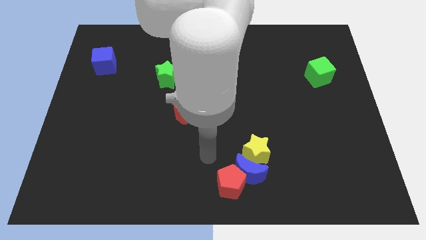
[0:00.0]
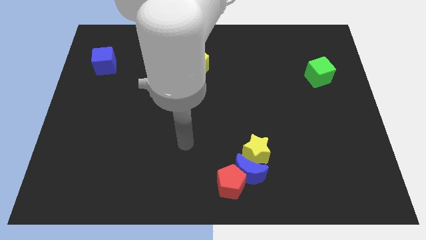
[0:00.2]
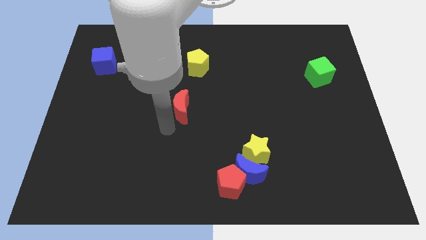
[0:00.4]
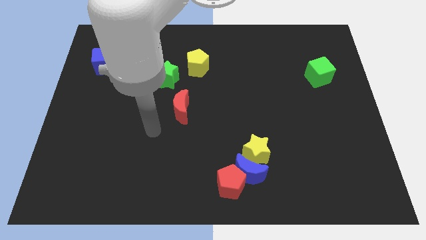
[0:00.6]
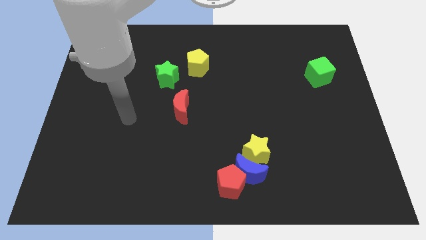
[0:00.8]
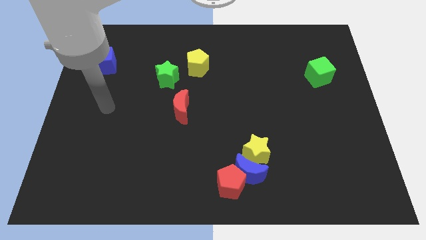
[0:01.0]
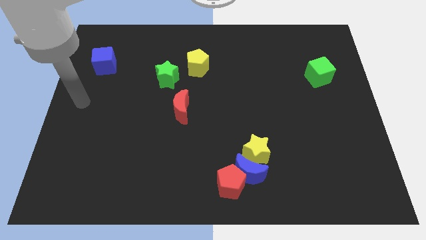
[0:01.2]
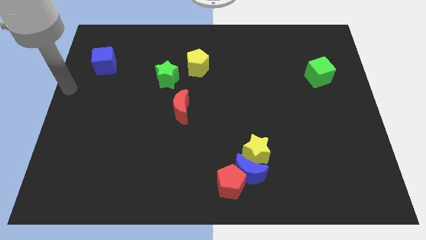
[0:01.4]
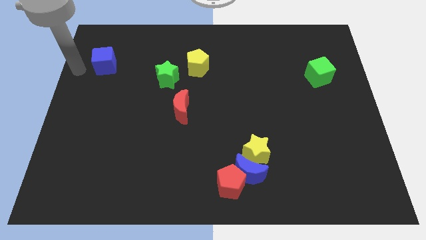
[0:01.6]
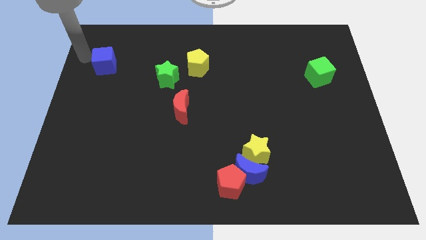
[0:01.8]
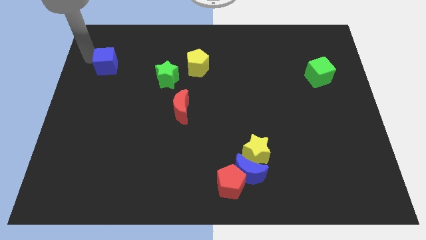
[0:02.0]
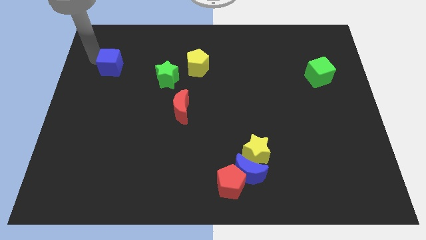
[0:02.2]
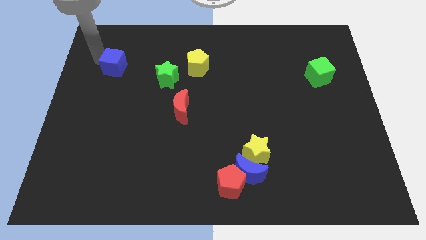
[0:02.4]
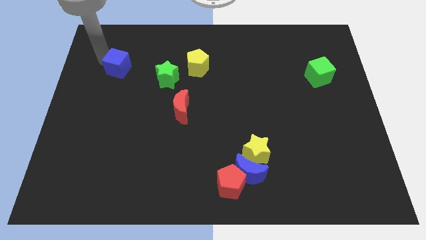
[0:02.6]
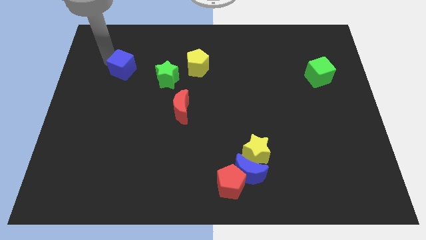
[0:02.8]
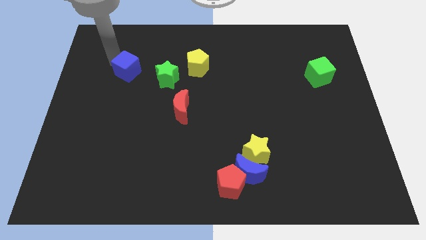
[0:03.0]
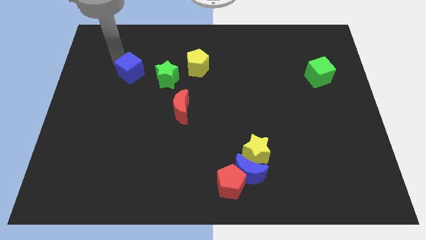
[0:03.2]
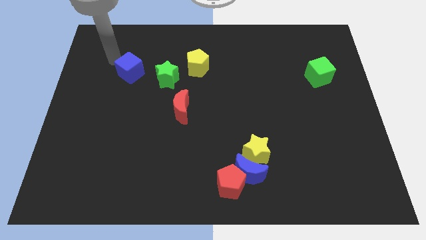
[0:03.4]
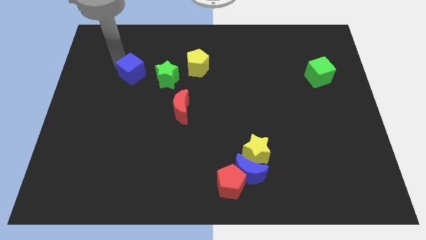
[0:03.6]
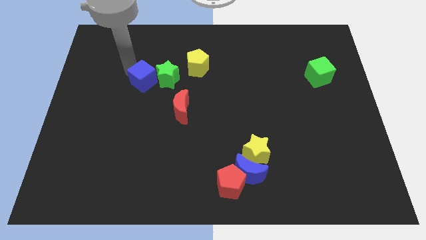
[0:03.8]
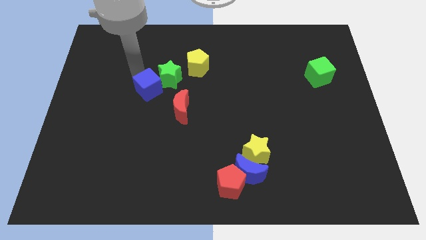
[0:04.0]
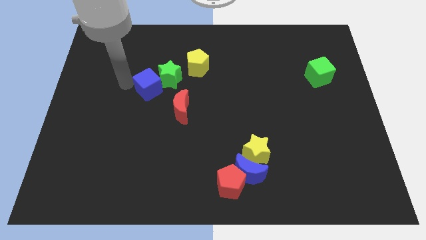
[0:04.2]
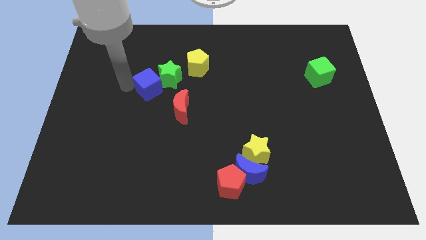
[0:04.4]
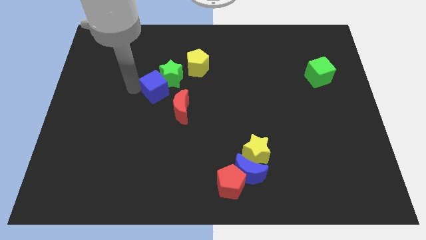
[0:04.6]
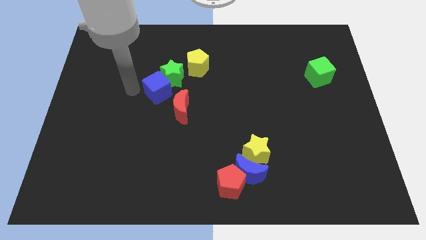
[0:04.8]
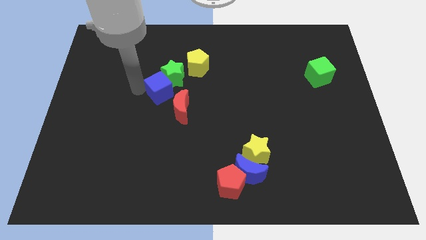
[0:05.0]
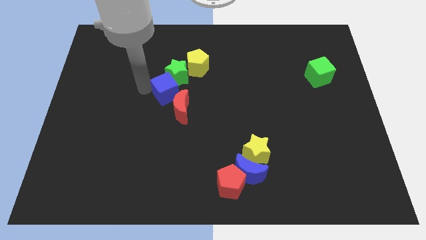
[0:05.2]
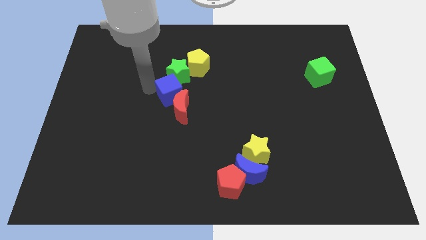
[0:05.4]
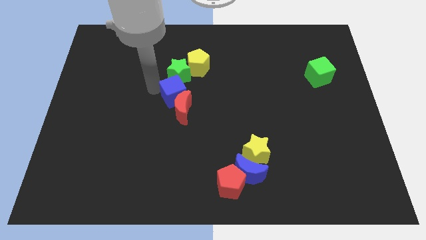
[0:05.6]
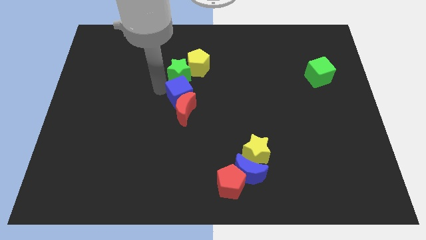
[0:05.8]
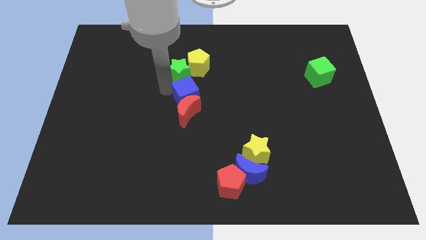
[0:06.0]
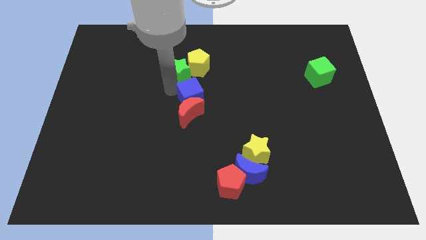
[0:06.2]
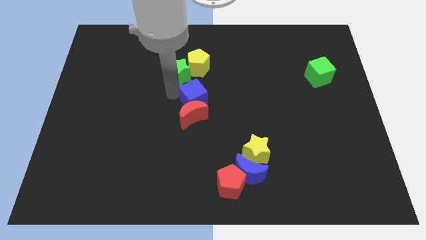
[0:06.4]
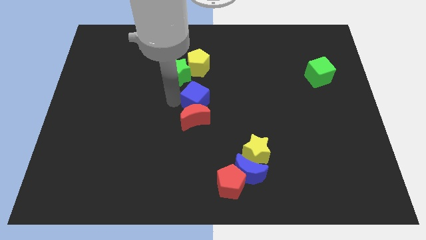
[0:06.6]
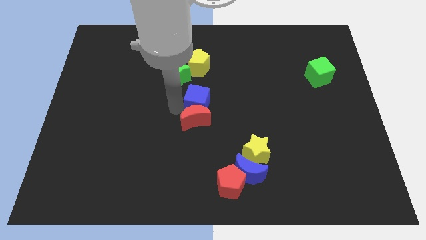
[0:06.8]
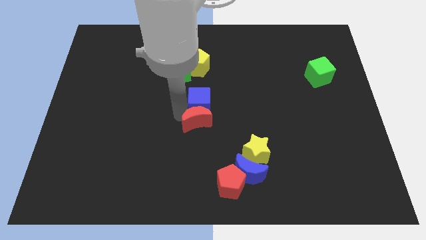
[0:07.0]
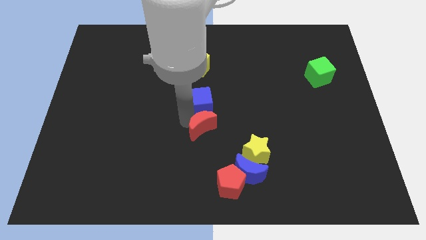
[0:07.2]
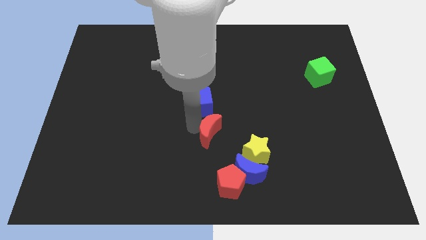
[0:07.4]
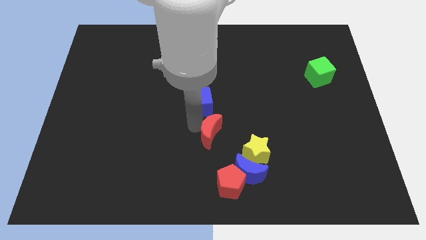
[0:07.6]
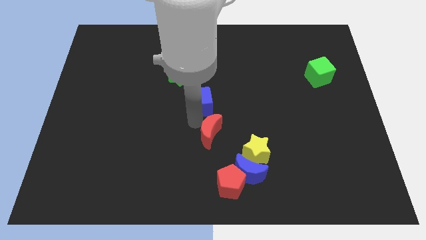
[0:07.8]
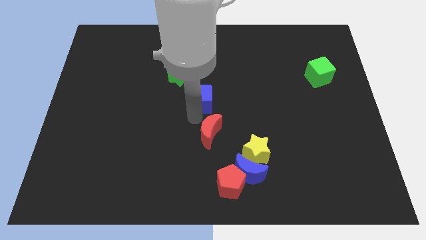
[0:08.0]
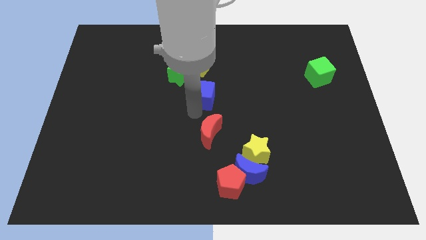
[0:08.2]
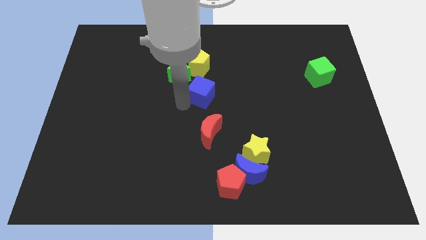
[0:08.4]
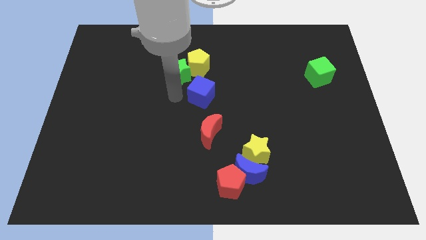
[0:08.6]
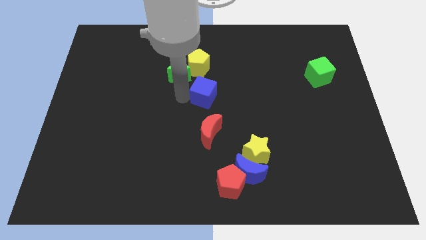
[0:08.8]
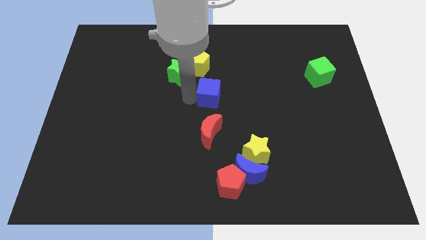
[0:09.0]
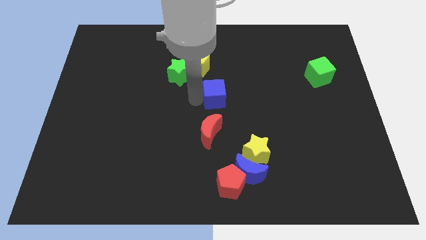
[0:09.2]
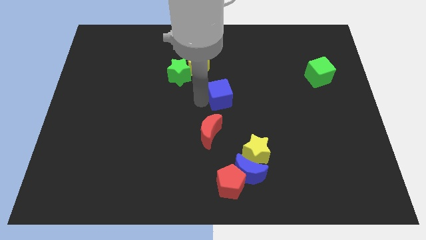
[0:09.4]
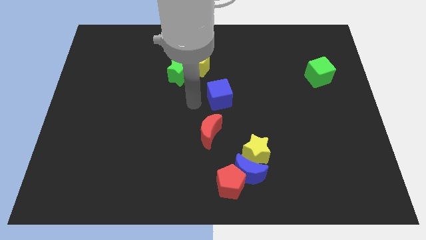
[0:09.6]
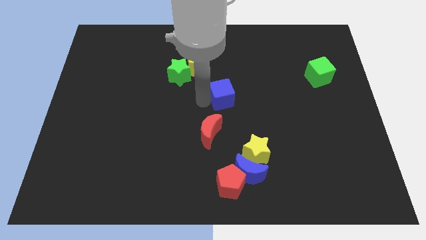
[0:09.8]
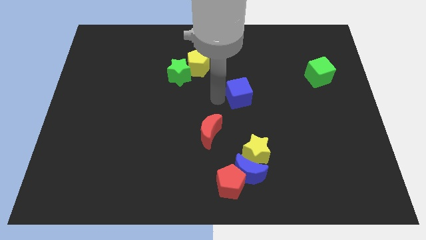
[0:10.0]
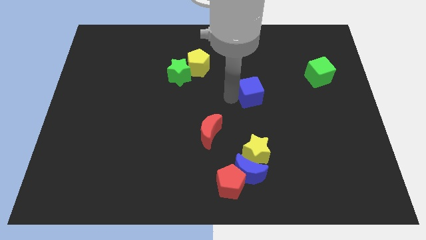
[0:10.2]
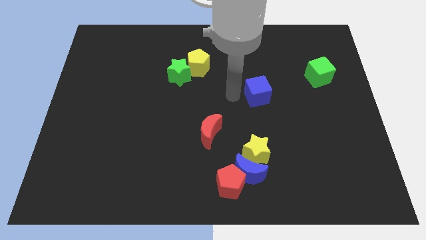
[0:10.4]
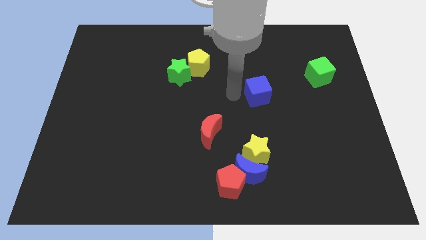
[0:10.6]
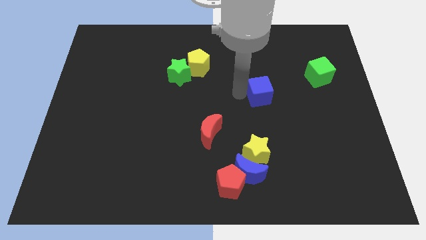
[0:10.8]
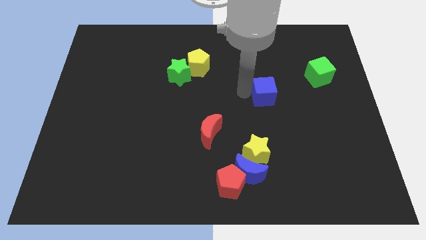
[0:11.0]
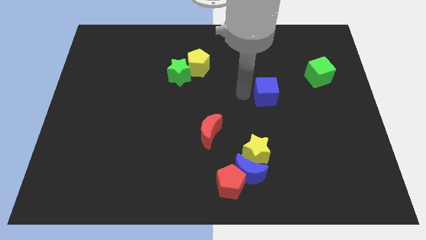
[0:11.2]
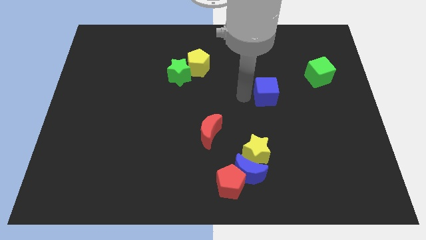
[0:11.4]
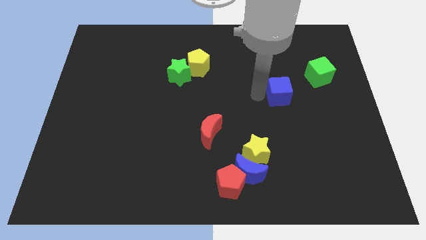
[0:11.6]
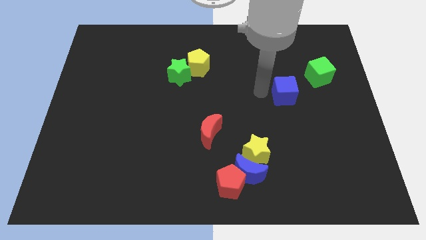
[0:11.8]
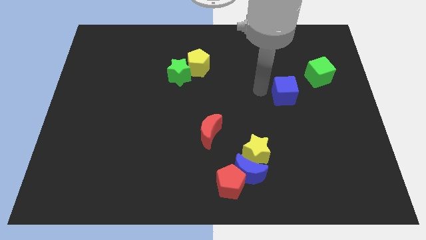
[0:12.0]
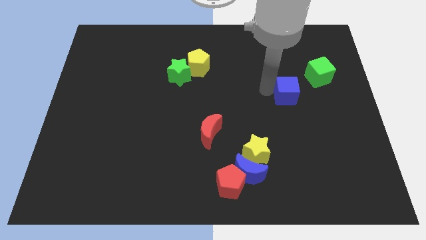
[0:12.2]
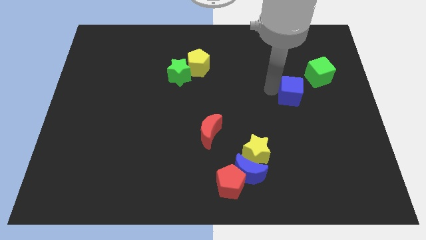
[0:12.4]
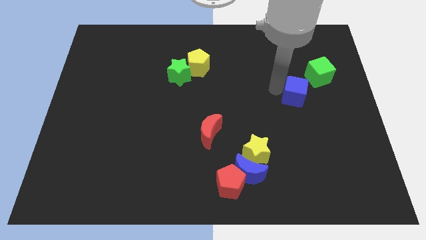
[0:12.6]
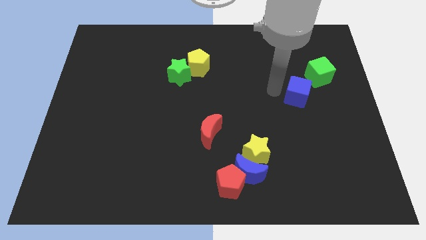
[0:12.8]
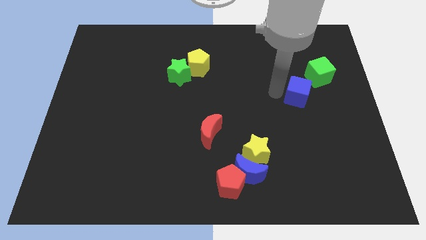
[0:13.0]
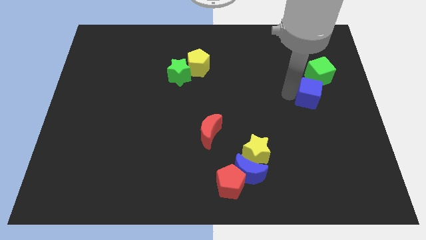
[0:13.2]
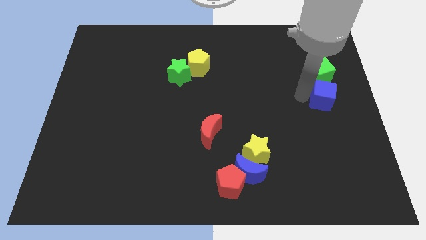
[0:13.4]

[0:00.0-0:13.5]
slide the blue cube to the center right
